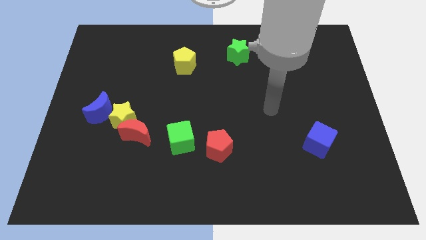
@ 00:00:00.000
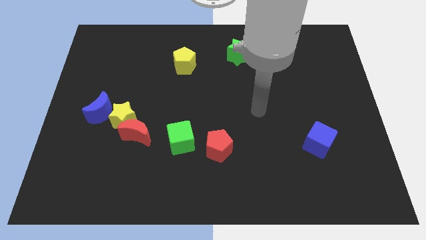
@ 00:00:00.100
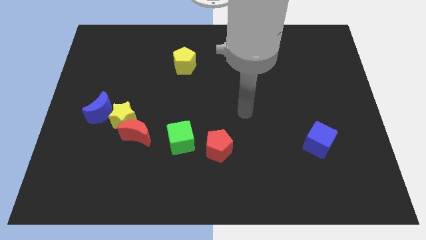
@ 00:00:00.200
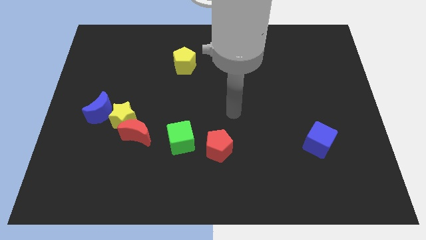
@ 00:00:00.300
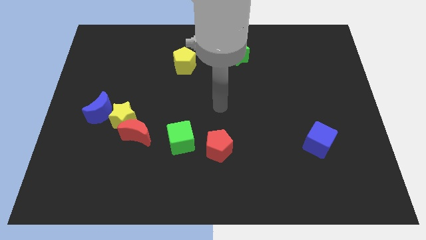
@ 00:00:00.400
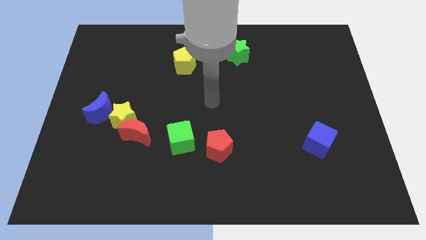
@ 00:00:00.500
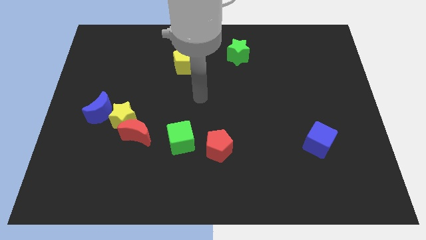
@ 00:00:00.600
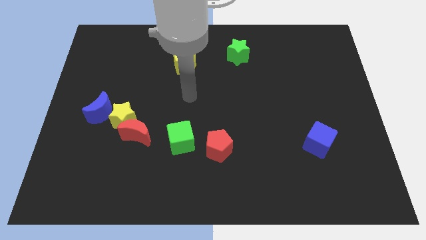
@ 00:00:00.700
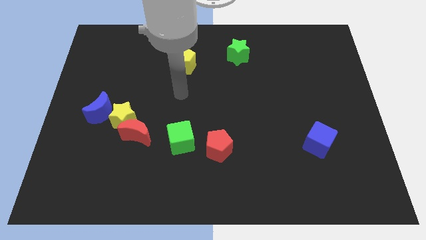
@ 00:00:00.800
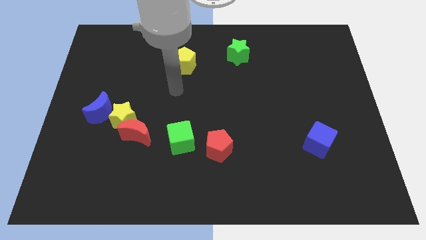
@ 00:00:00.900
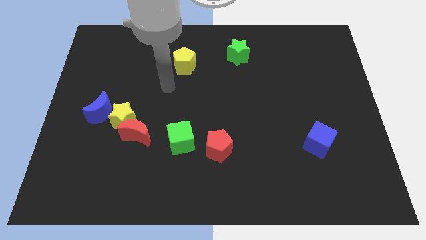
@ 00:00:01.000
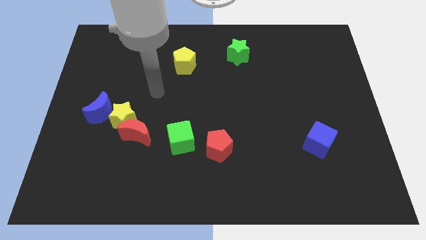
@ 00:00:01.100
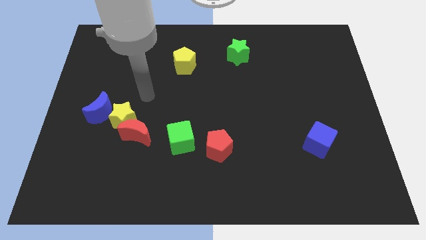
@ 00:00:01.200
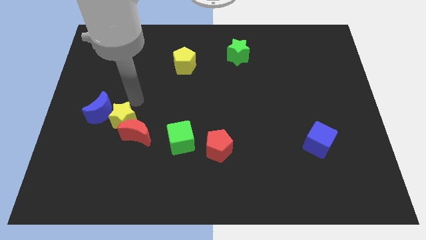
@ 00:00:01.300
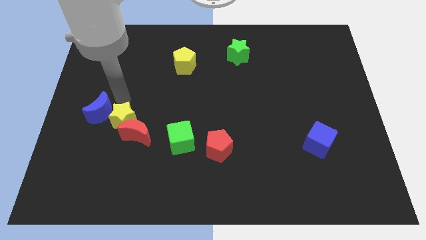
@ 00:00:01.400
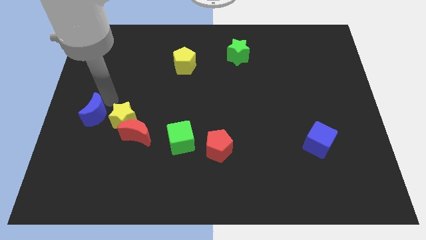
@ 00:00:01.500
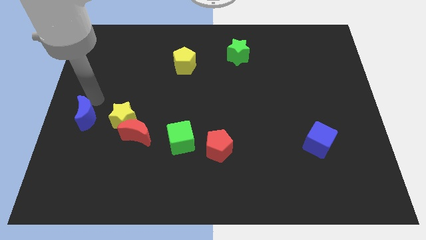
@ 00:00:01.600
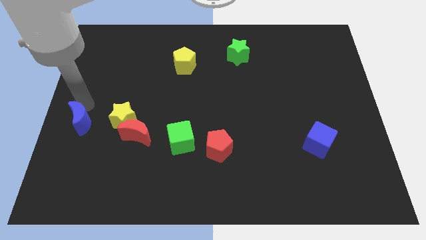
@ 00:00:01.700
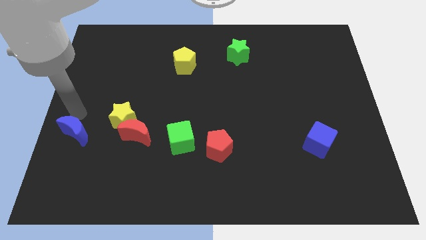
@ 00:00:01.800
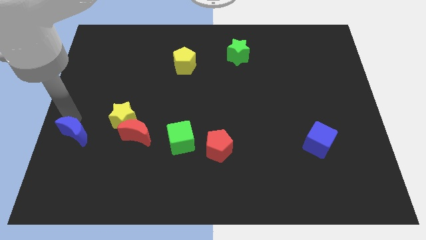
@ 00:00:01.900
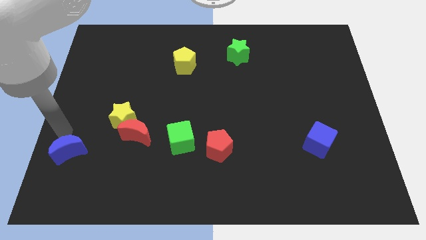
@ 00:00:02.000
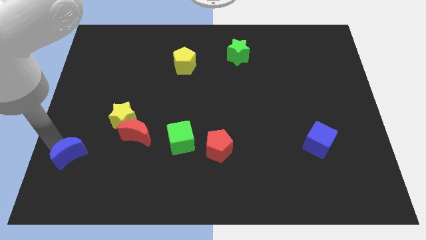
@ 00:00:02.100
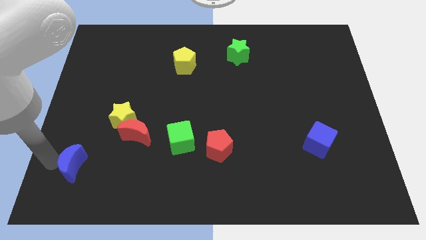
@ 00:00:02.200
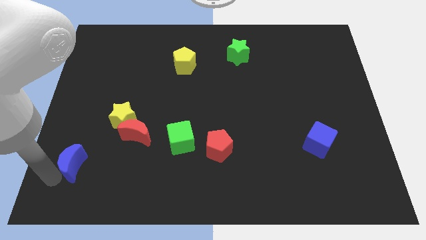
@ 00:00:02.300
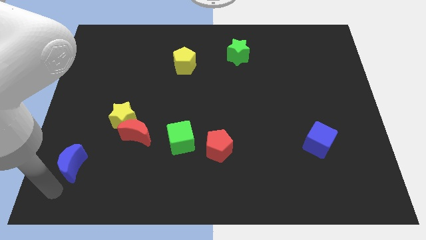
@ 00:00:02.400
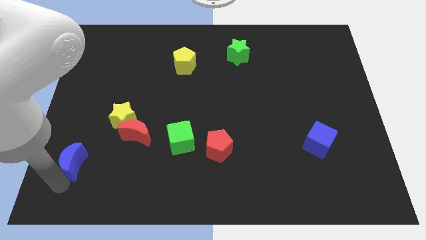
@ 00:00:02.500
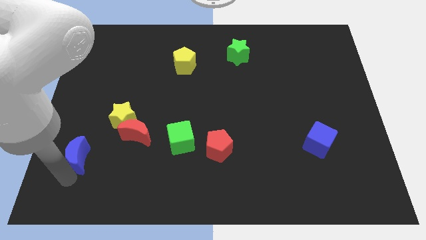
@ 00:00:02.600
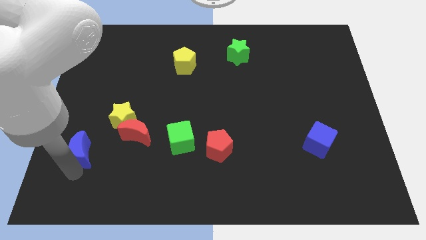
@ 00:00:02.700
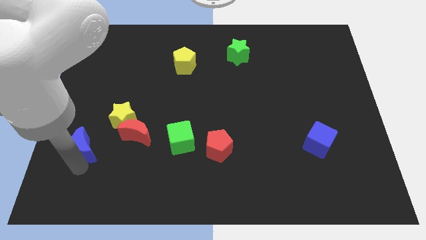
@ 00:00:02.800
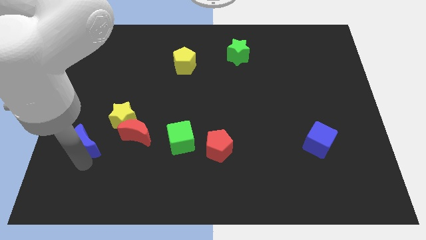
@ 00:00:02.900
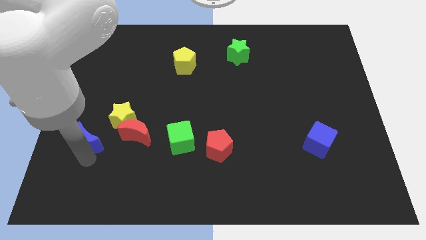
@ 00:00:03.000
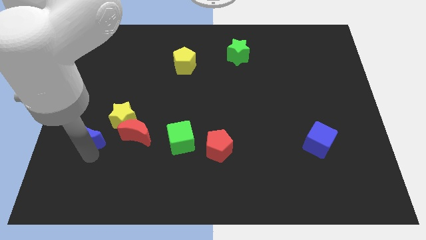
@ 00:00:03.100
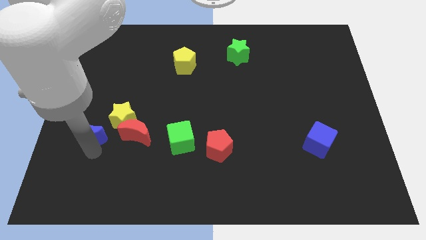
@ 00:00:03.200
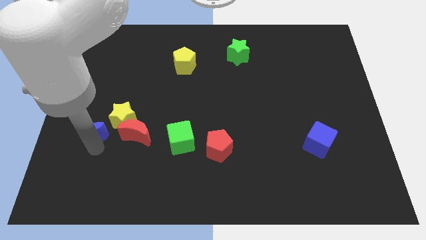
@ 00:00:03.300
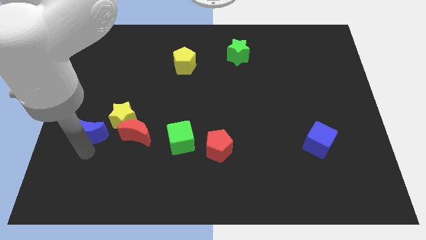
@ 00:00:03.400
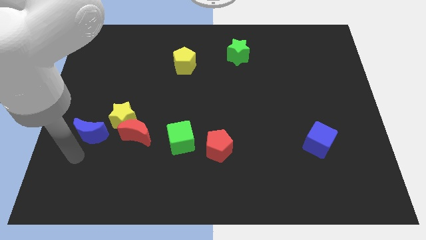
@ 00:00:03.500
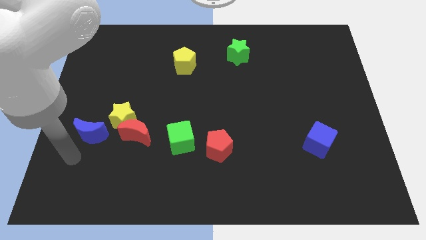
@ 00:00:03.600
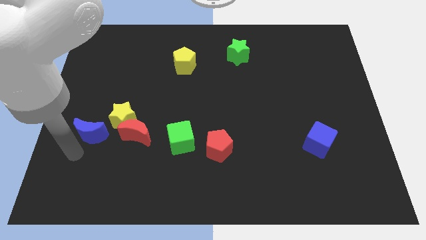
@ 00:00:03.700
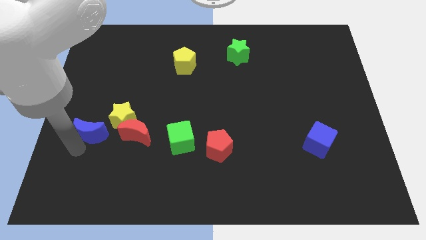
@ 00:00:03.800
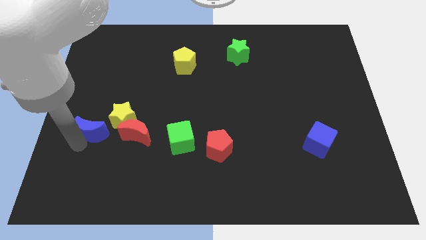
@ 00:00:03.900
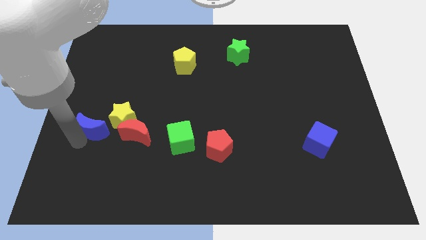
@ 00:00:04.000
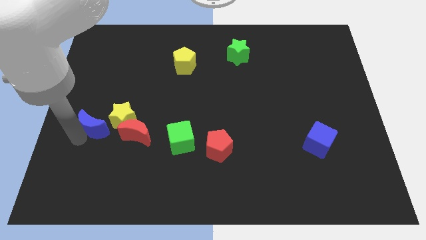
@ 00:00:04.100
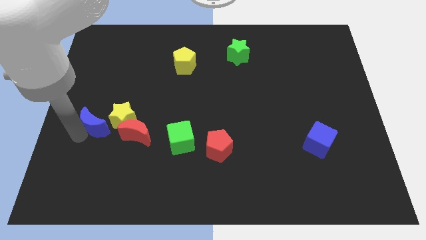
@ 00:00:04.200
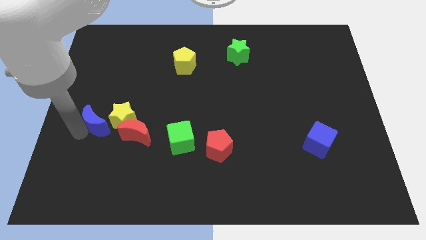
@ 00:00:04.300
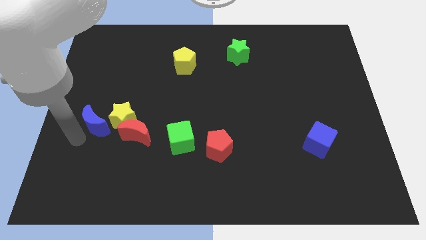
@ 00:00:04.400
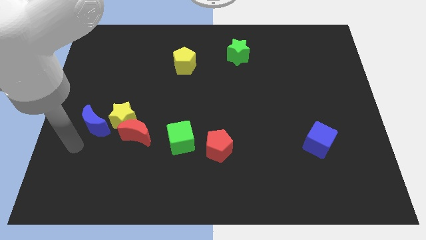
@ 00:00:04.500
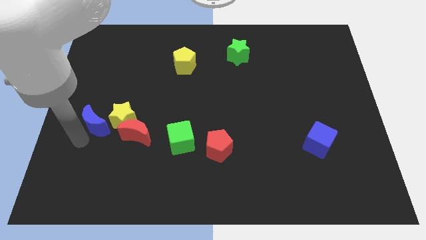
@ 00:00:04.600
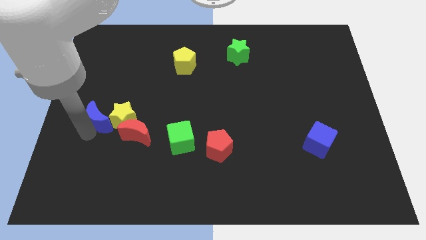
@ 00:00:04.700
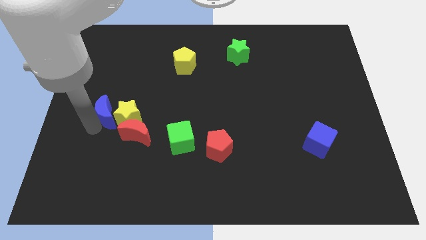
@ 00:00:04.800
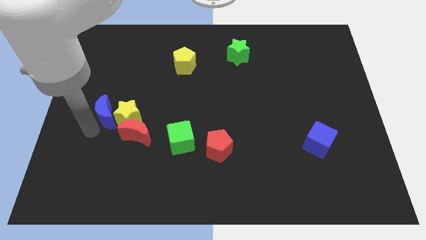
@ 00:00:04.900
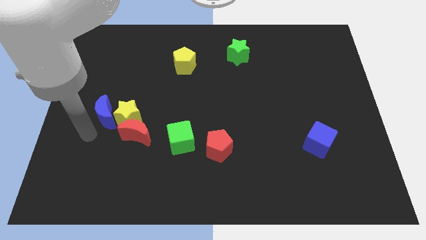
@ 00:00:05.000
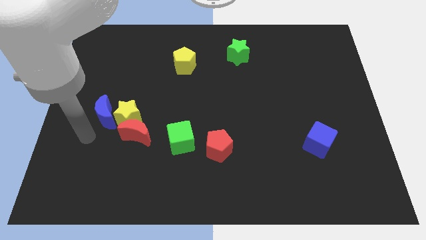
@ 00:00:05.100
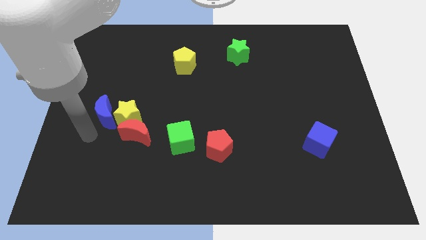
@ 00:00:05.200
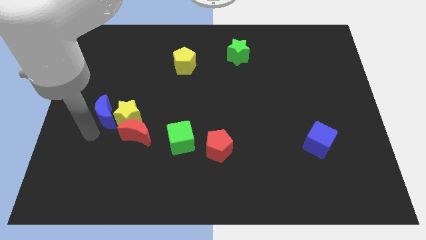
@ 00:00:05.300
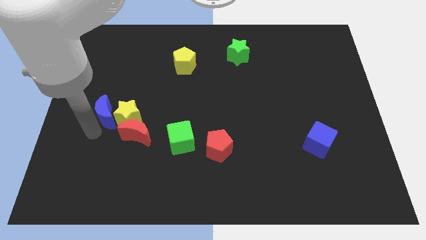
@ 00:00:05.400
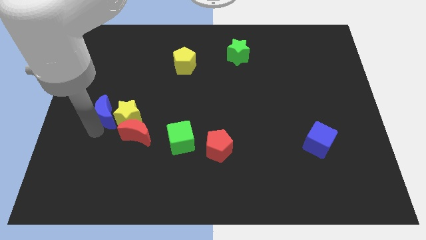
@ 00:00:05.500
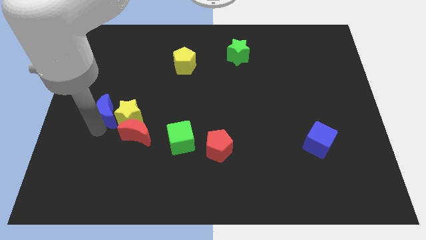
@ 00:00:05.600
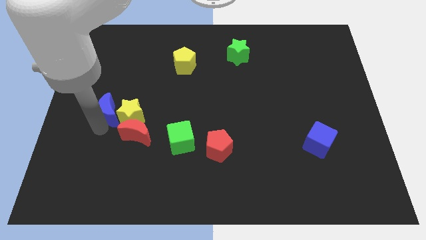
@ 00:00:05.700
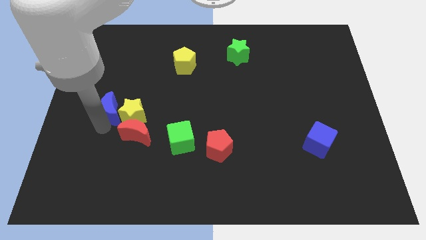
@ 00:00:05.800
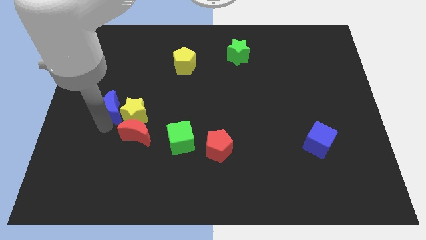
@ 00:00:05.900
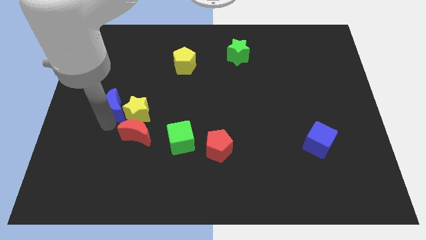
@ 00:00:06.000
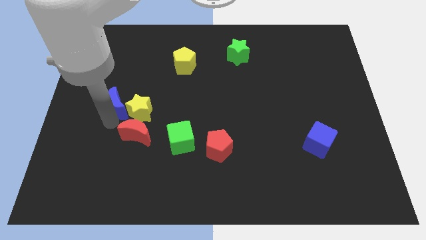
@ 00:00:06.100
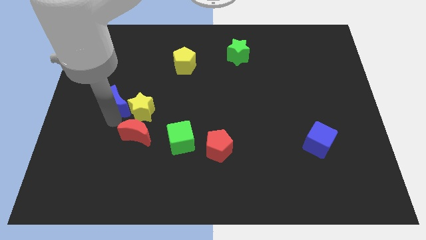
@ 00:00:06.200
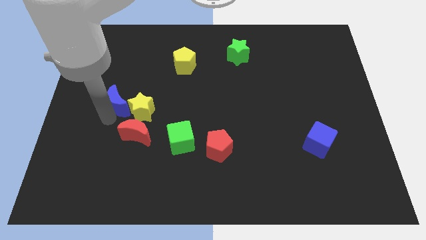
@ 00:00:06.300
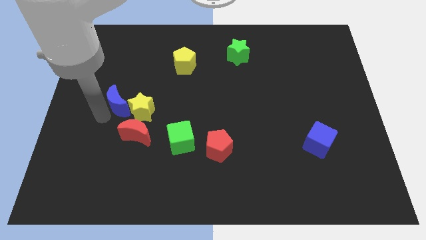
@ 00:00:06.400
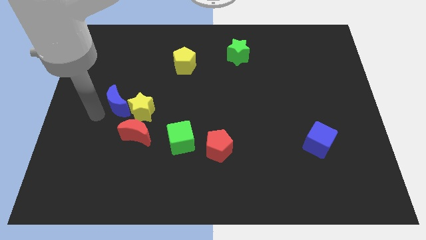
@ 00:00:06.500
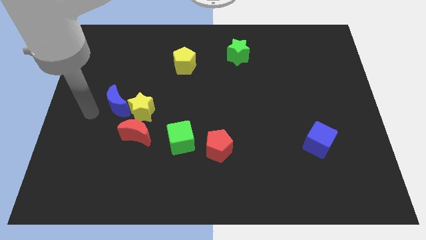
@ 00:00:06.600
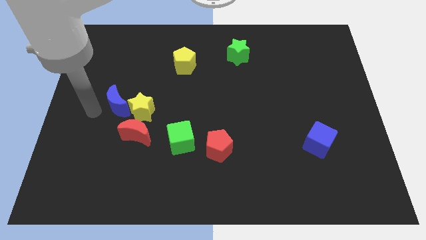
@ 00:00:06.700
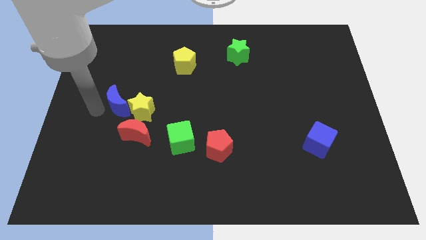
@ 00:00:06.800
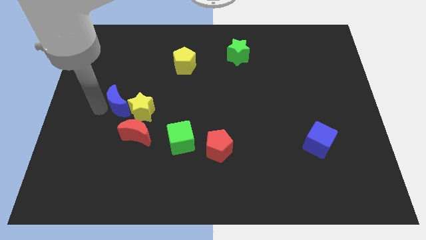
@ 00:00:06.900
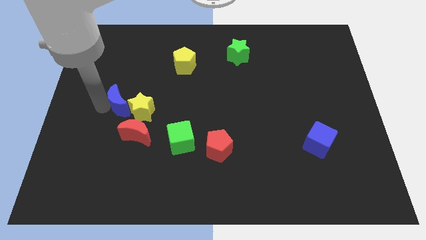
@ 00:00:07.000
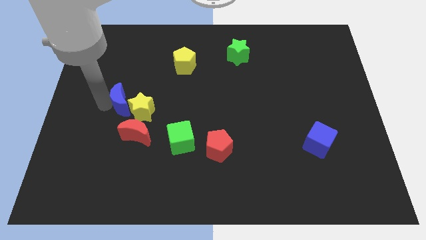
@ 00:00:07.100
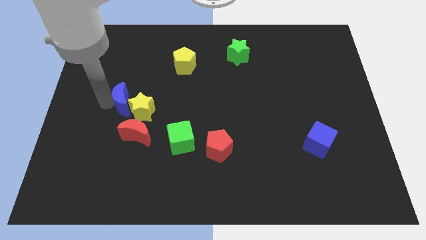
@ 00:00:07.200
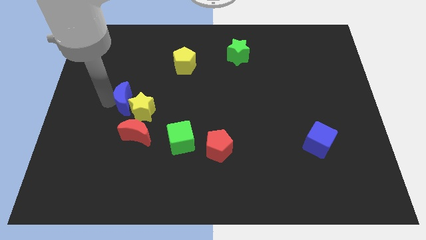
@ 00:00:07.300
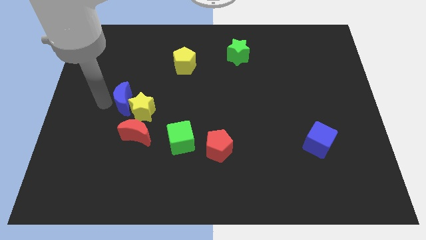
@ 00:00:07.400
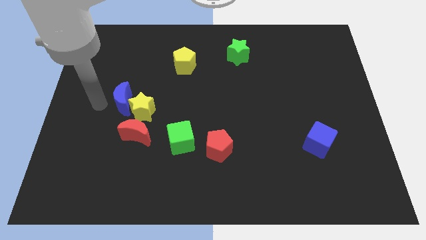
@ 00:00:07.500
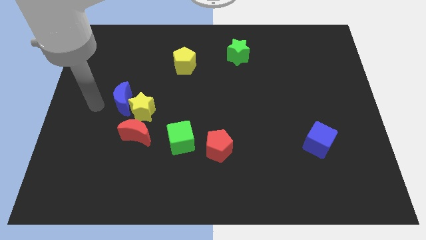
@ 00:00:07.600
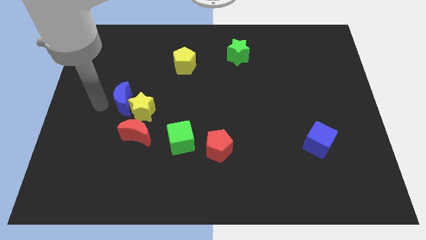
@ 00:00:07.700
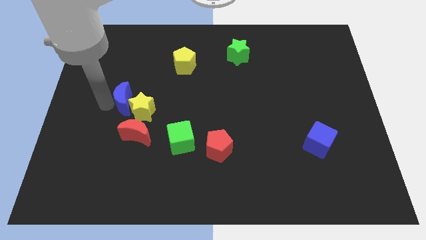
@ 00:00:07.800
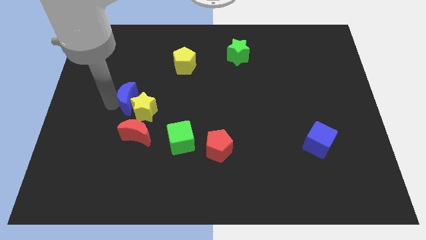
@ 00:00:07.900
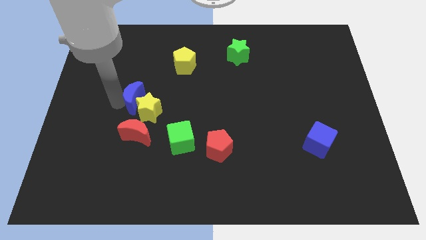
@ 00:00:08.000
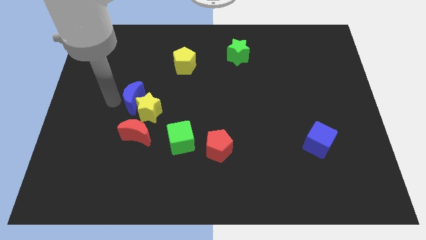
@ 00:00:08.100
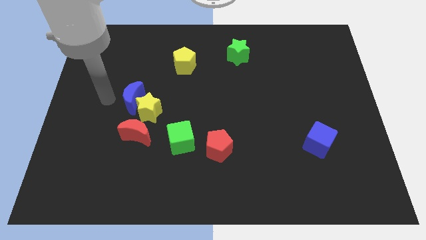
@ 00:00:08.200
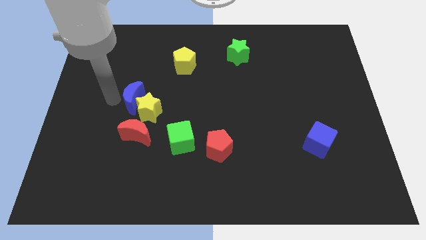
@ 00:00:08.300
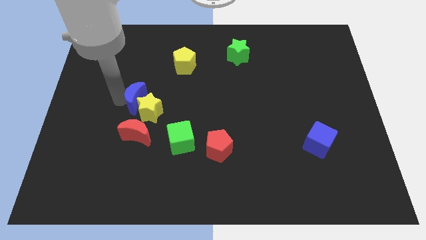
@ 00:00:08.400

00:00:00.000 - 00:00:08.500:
slightly push the blue moon to the right
